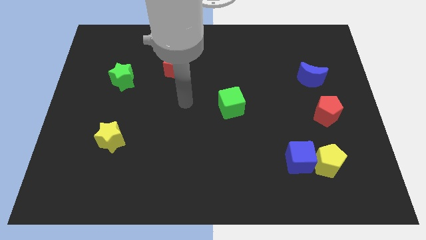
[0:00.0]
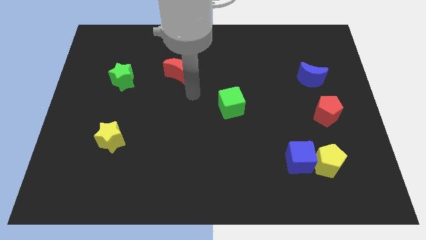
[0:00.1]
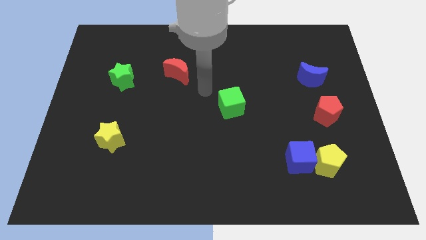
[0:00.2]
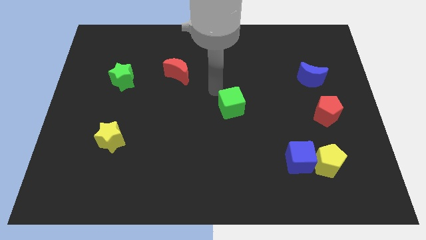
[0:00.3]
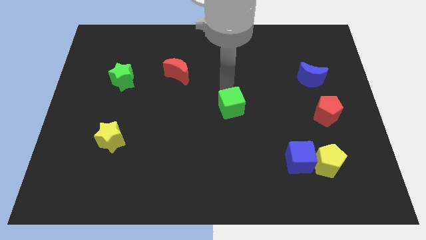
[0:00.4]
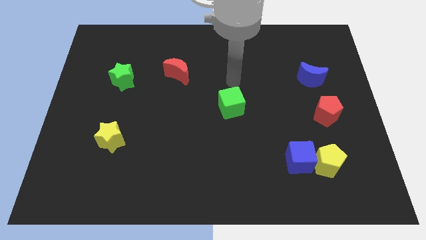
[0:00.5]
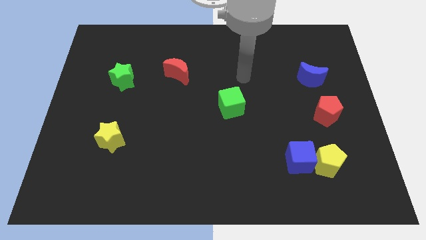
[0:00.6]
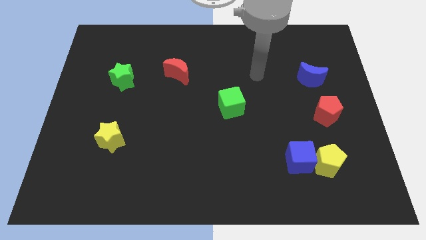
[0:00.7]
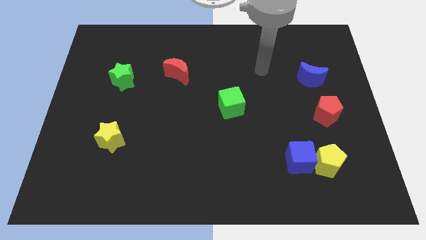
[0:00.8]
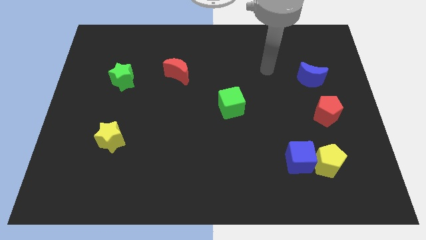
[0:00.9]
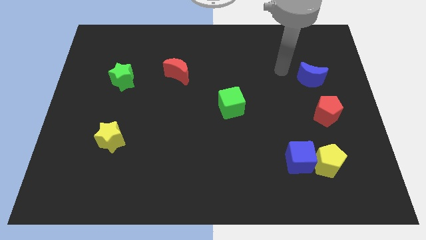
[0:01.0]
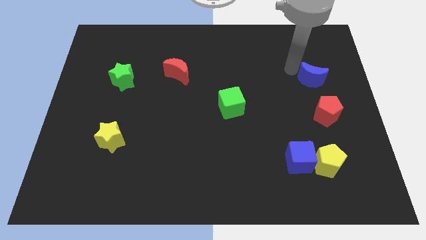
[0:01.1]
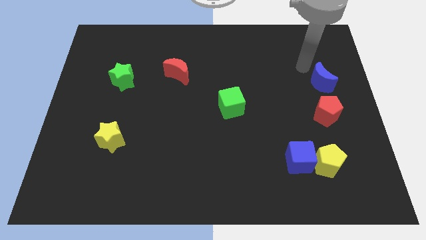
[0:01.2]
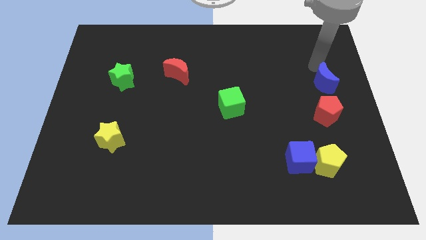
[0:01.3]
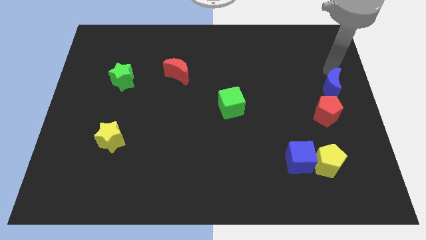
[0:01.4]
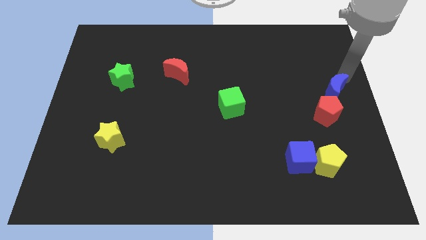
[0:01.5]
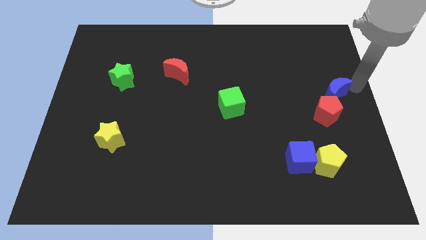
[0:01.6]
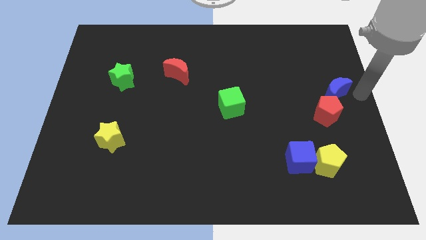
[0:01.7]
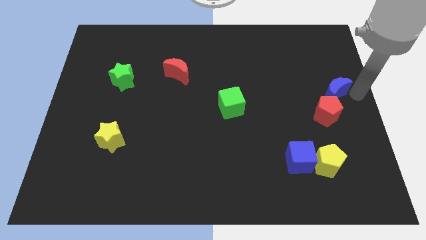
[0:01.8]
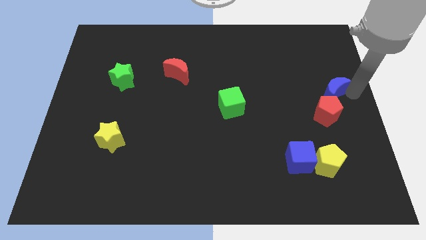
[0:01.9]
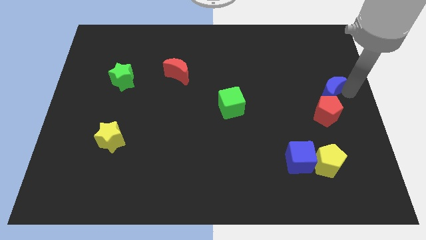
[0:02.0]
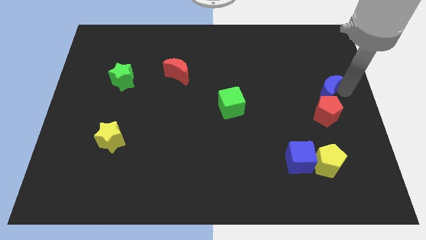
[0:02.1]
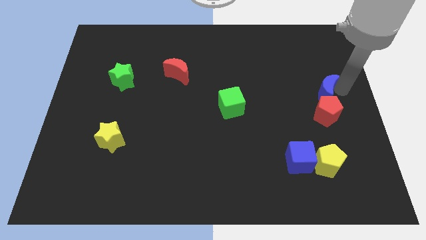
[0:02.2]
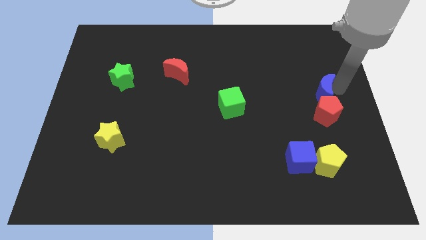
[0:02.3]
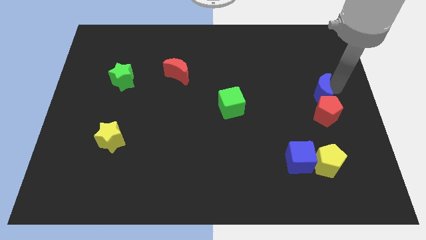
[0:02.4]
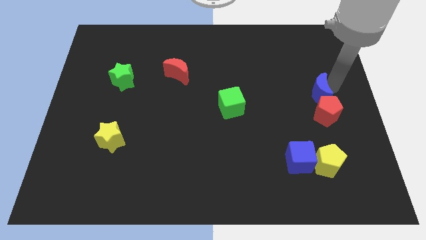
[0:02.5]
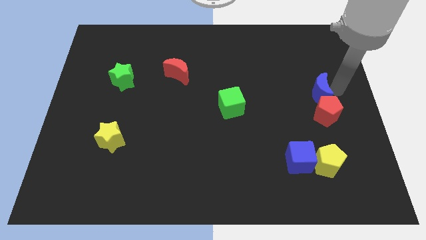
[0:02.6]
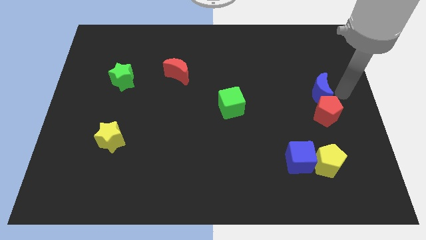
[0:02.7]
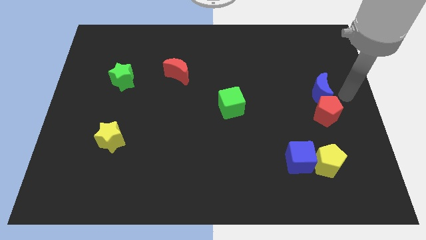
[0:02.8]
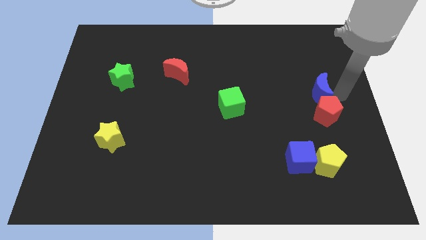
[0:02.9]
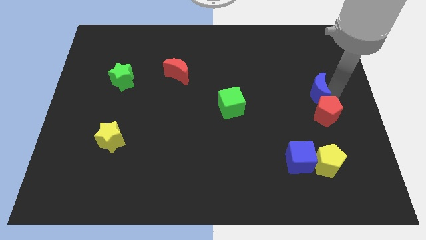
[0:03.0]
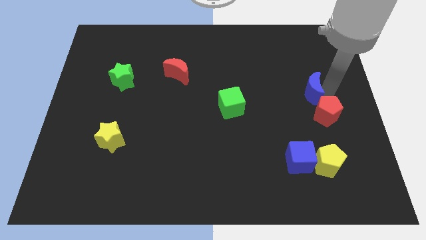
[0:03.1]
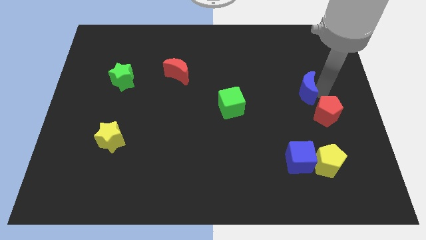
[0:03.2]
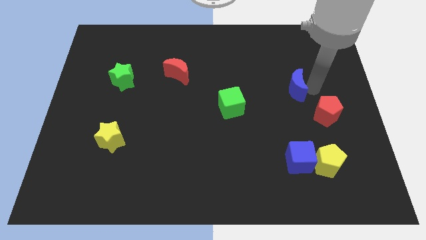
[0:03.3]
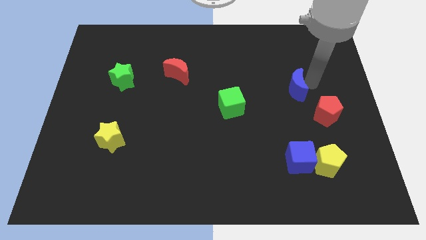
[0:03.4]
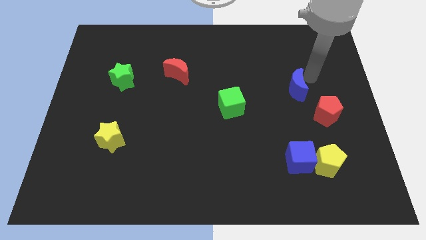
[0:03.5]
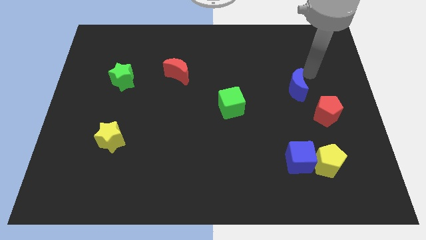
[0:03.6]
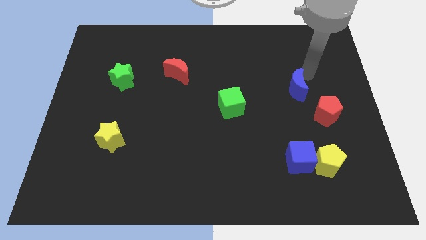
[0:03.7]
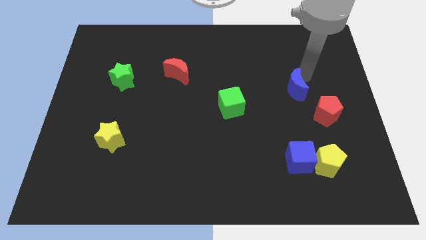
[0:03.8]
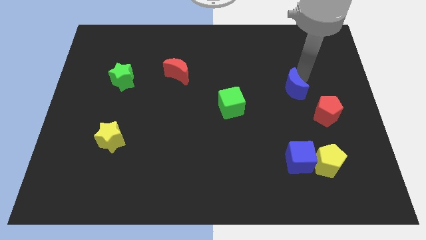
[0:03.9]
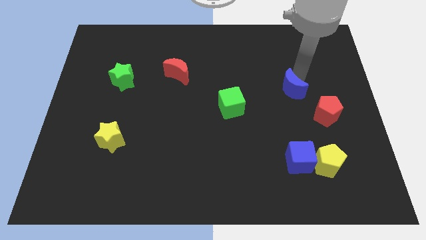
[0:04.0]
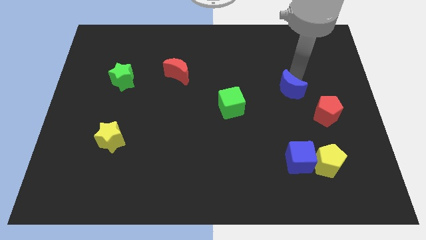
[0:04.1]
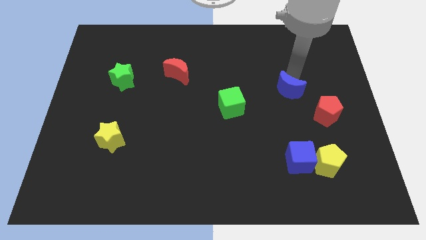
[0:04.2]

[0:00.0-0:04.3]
push the blue moon down and to the left diagonally a little bit

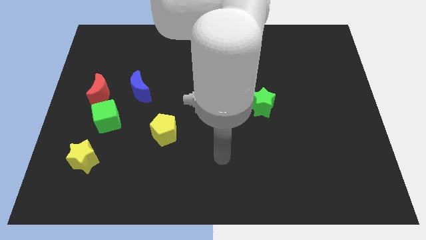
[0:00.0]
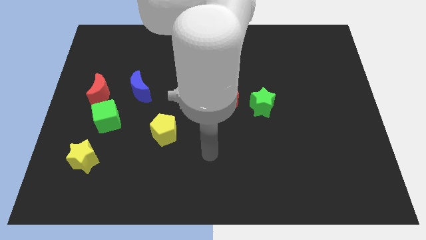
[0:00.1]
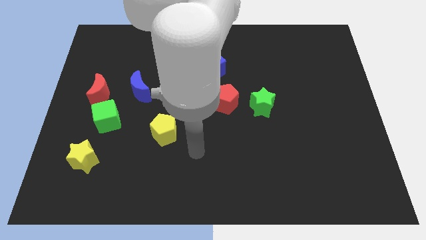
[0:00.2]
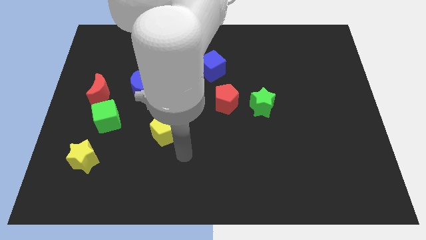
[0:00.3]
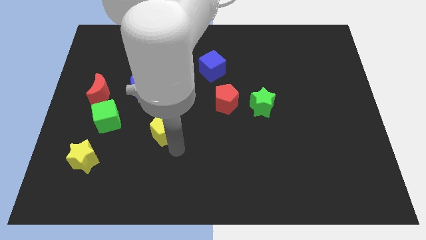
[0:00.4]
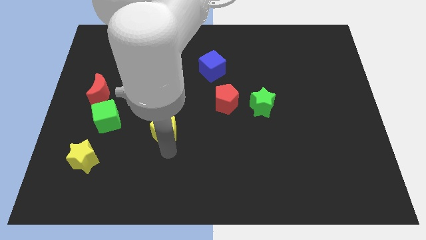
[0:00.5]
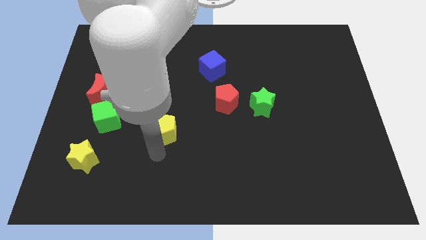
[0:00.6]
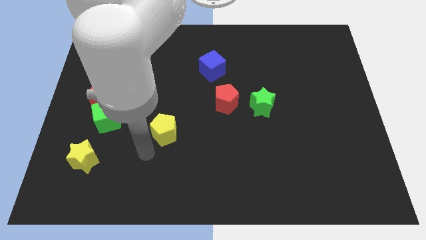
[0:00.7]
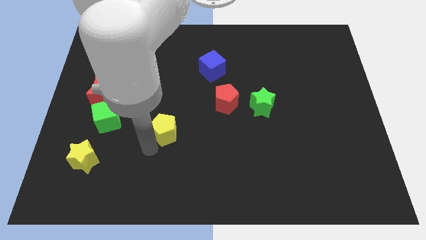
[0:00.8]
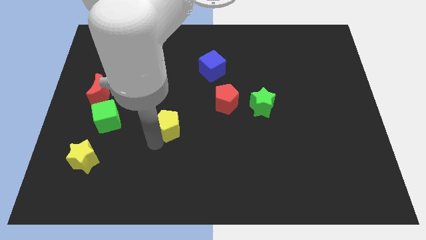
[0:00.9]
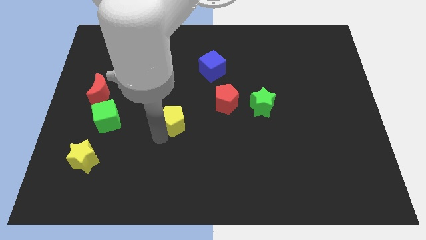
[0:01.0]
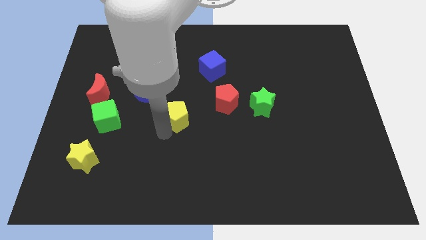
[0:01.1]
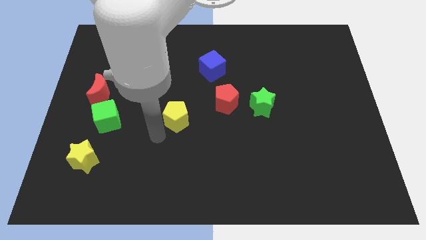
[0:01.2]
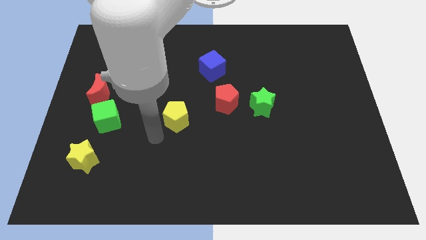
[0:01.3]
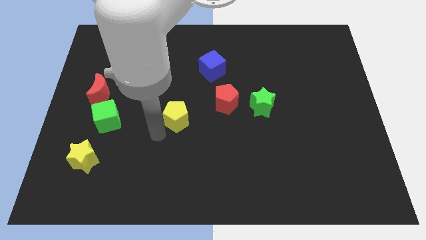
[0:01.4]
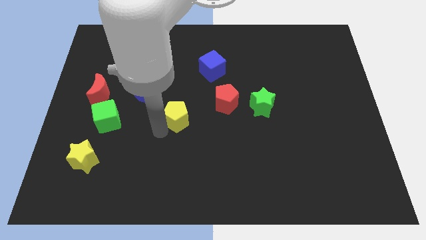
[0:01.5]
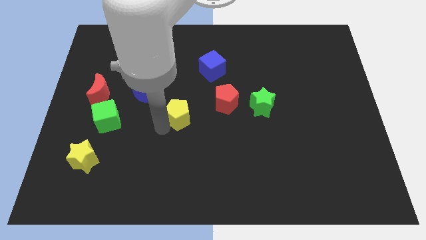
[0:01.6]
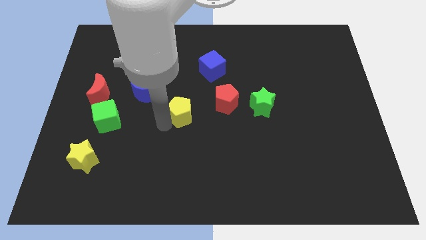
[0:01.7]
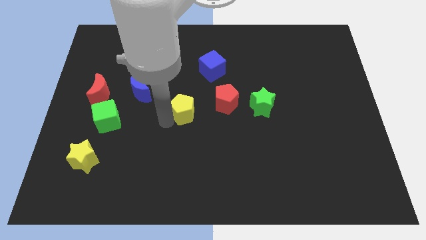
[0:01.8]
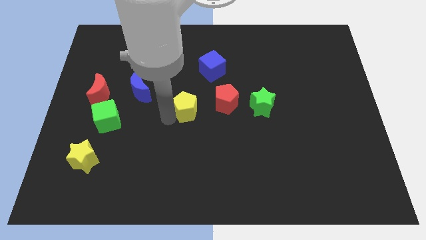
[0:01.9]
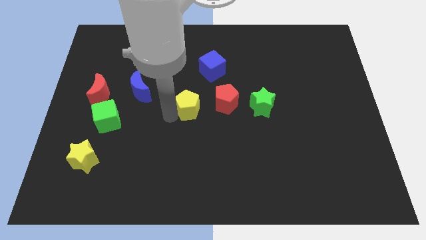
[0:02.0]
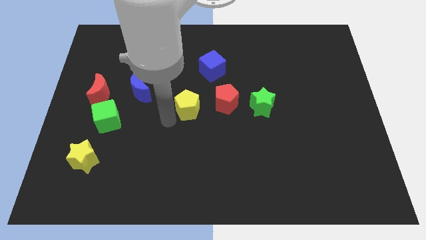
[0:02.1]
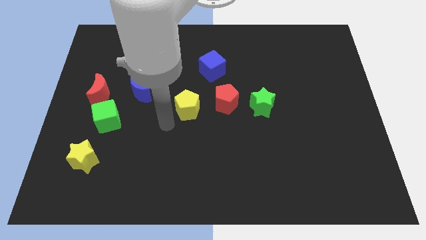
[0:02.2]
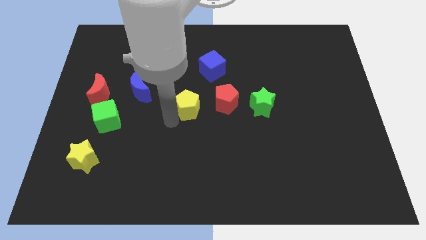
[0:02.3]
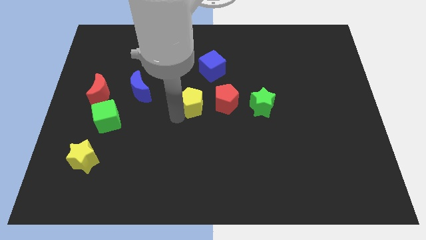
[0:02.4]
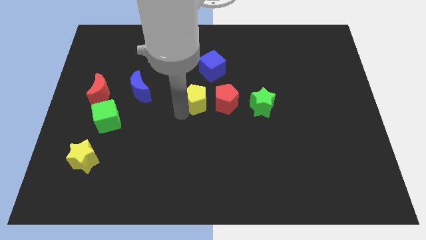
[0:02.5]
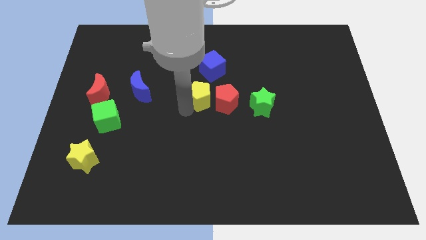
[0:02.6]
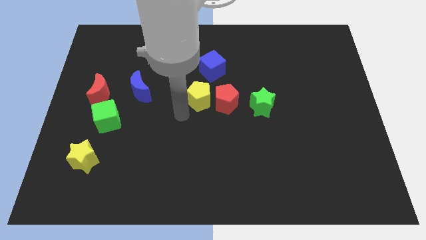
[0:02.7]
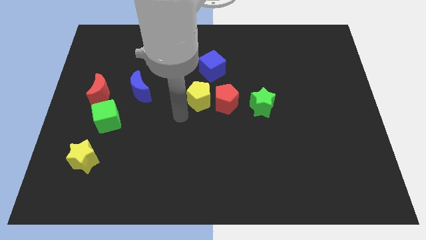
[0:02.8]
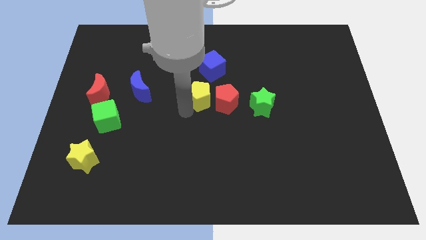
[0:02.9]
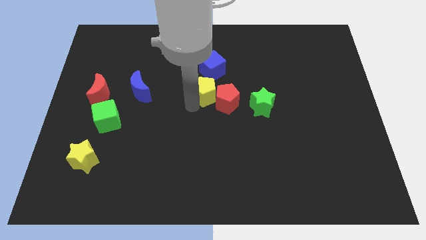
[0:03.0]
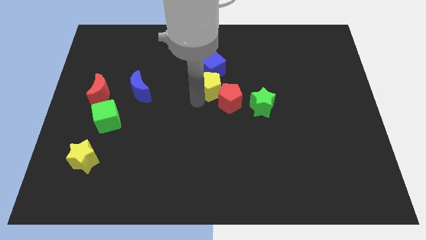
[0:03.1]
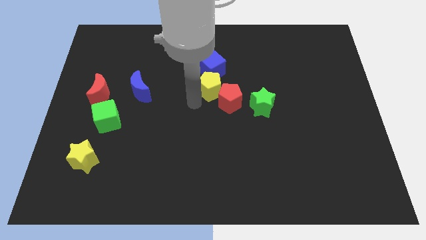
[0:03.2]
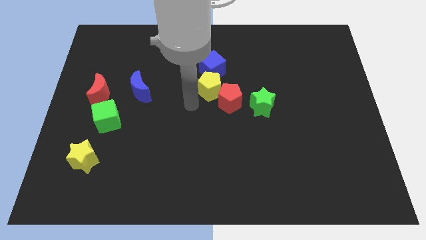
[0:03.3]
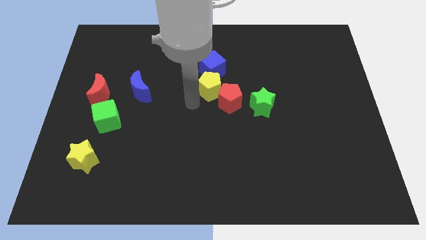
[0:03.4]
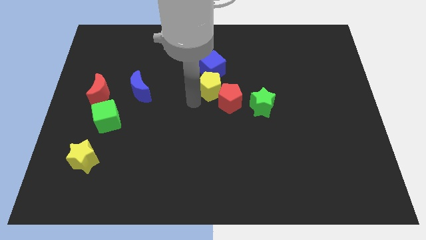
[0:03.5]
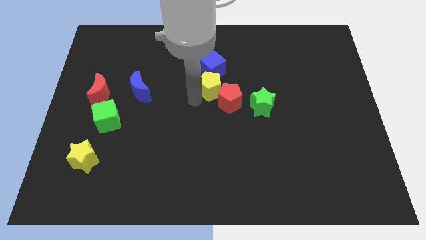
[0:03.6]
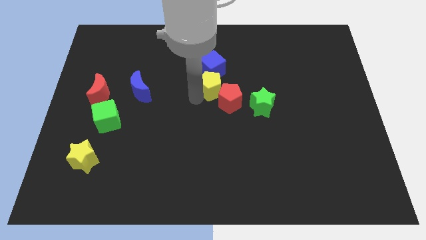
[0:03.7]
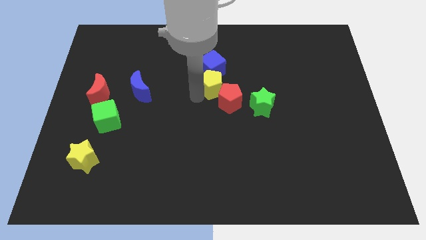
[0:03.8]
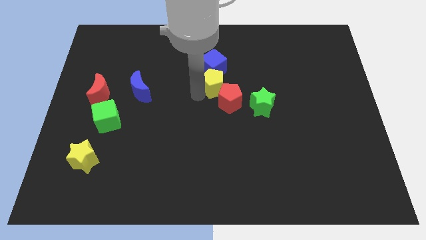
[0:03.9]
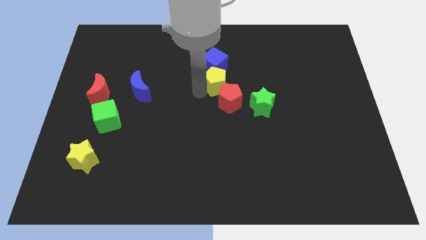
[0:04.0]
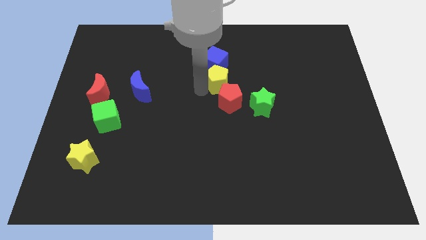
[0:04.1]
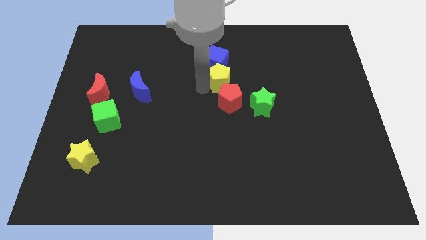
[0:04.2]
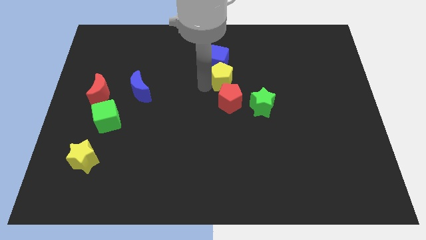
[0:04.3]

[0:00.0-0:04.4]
slide the yellow pentagon diagonally up and right
